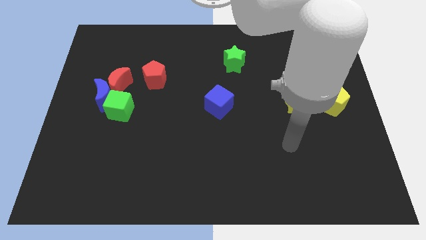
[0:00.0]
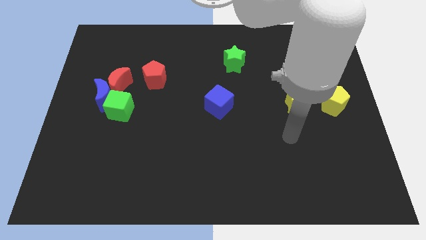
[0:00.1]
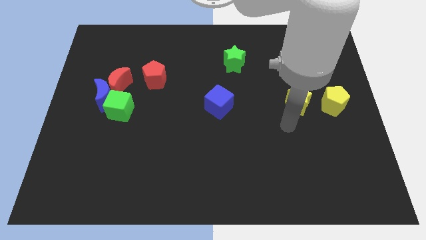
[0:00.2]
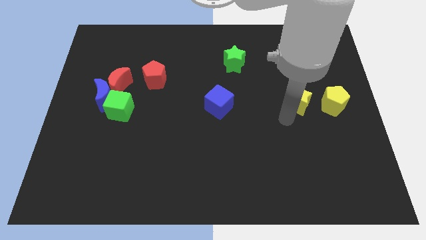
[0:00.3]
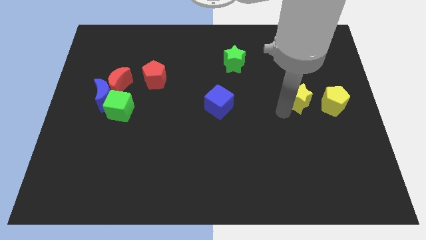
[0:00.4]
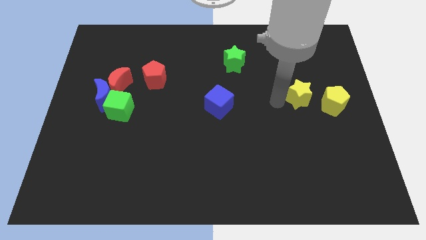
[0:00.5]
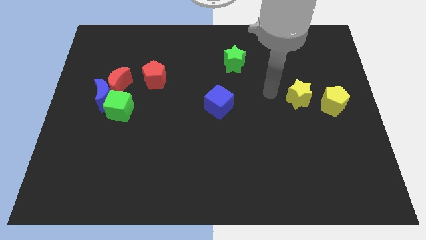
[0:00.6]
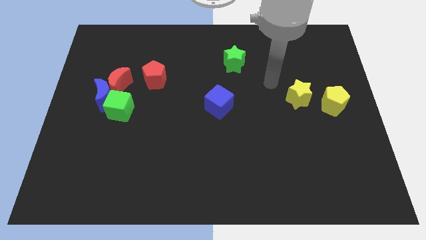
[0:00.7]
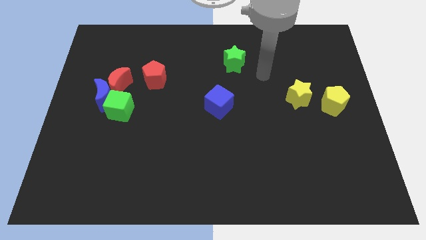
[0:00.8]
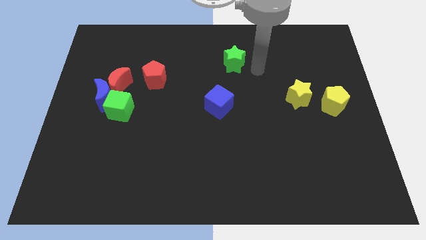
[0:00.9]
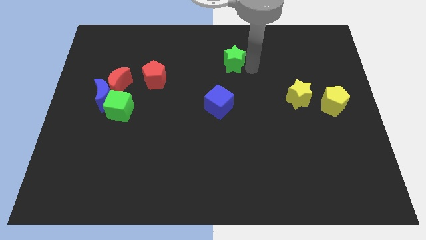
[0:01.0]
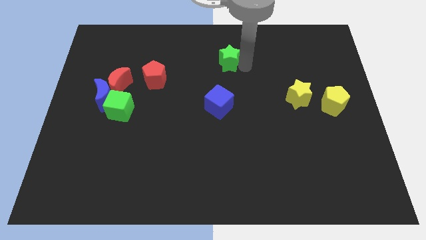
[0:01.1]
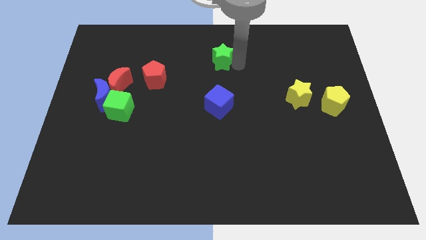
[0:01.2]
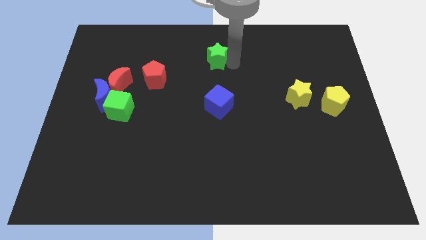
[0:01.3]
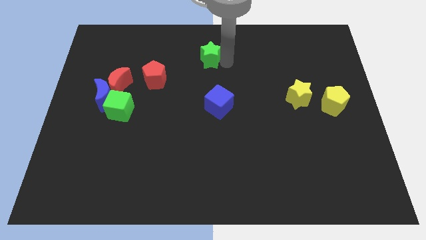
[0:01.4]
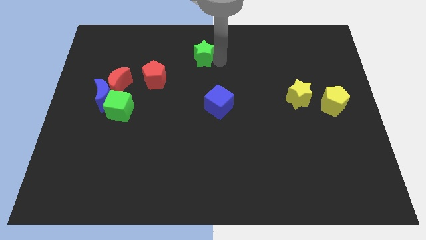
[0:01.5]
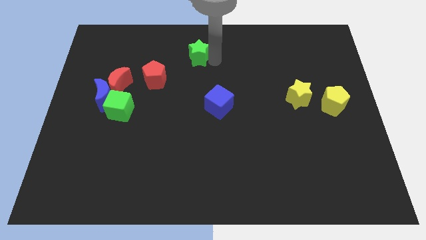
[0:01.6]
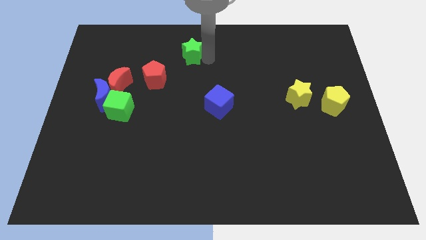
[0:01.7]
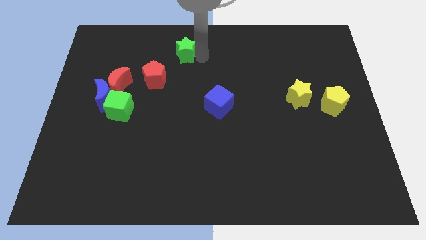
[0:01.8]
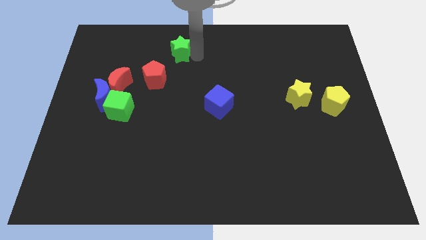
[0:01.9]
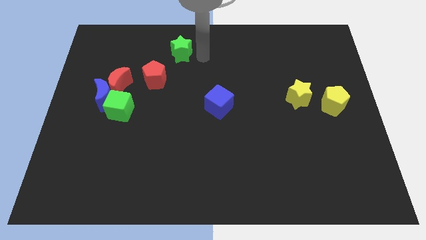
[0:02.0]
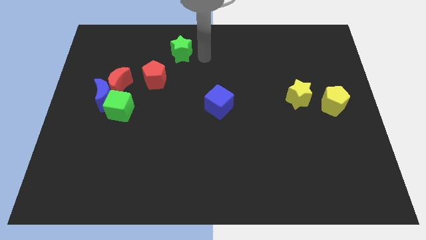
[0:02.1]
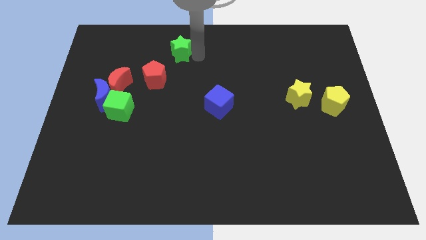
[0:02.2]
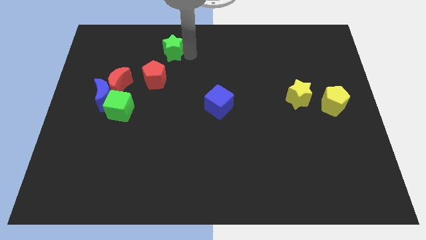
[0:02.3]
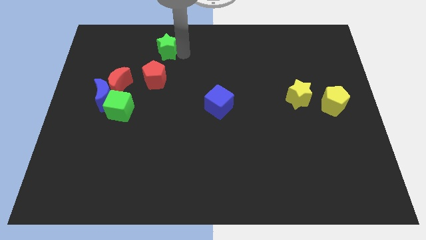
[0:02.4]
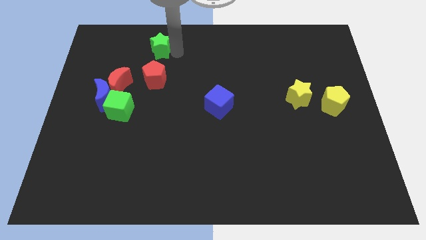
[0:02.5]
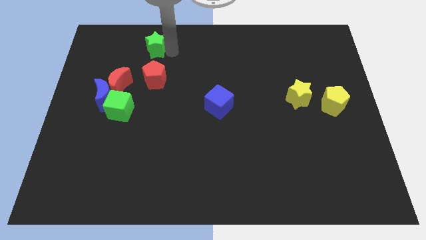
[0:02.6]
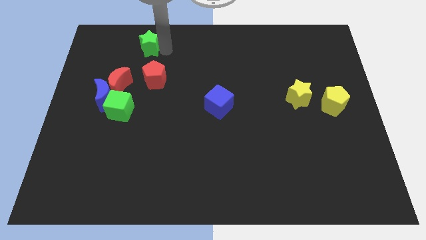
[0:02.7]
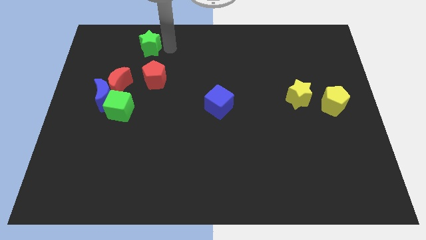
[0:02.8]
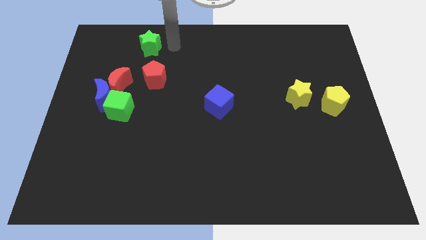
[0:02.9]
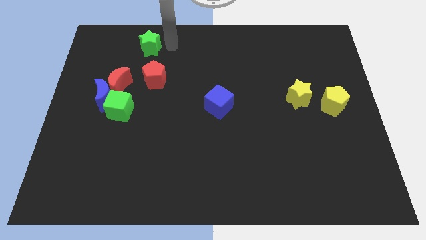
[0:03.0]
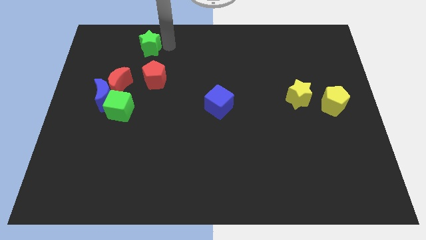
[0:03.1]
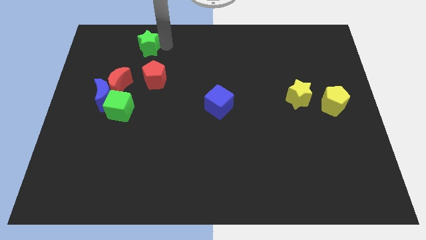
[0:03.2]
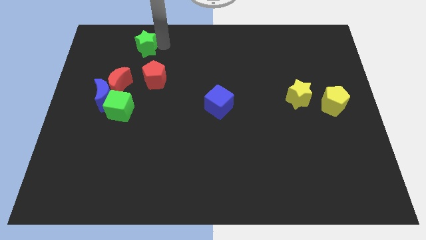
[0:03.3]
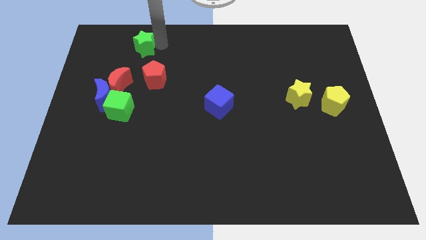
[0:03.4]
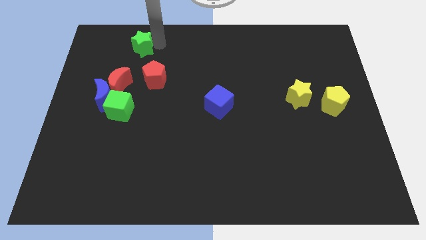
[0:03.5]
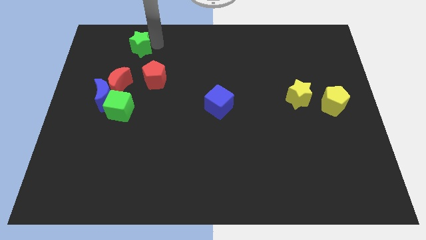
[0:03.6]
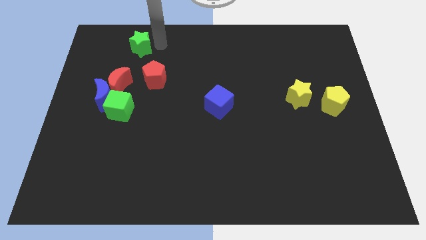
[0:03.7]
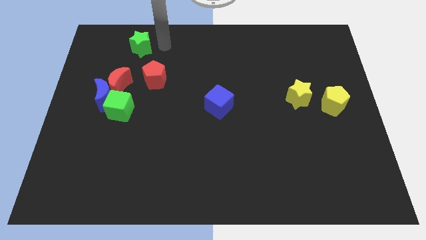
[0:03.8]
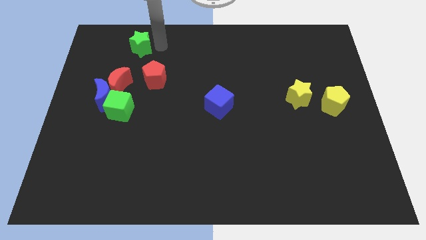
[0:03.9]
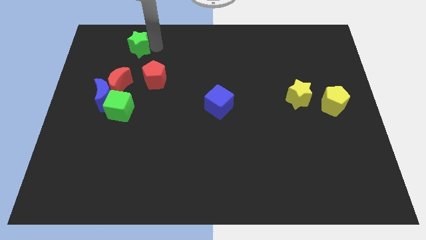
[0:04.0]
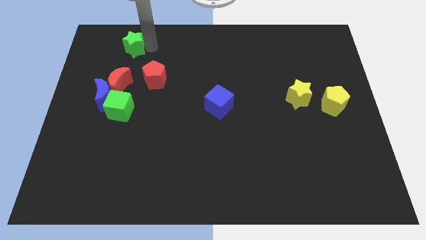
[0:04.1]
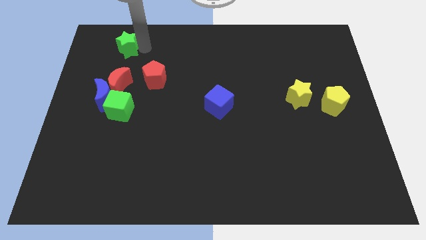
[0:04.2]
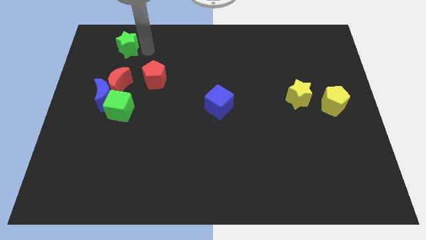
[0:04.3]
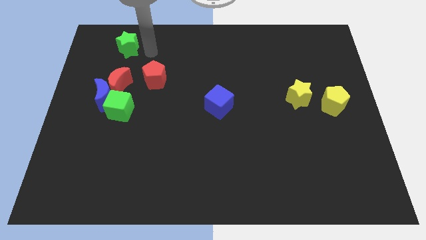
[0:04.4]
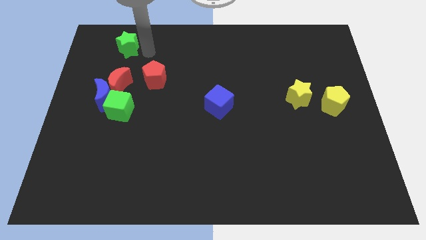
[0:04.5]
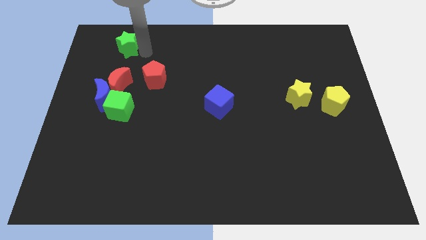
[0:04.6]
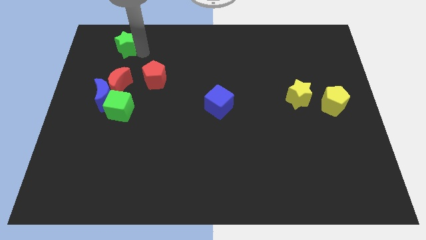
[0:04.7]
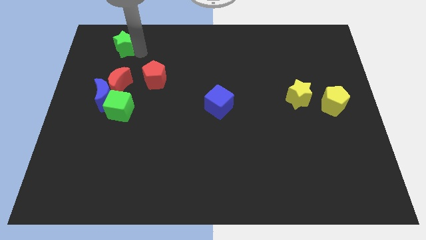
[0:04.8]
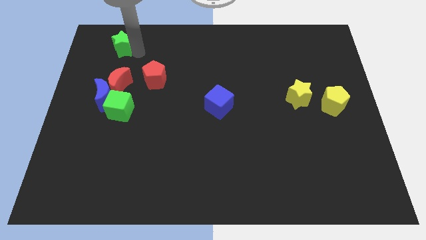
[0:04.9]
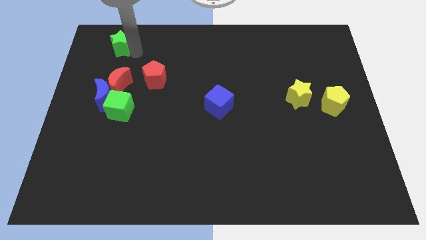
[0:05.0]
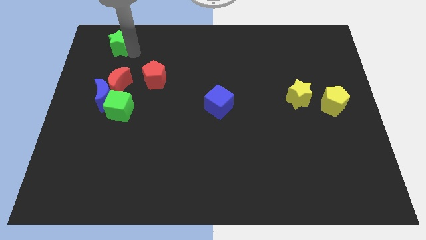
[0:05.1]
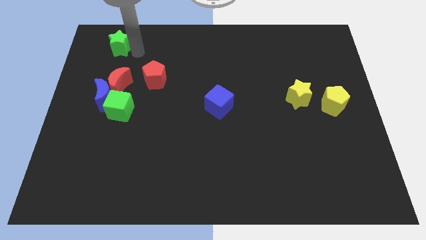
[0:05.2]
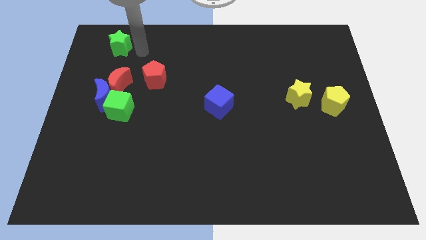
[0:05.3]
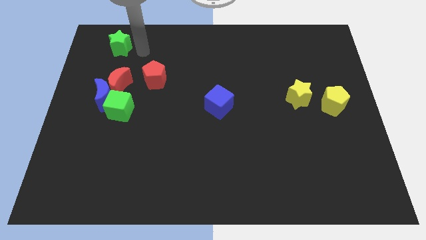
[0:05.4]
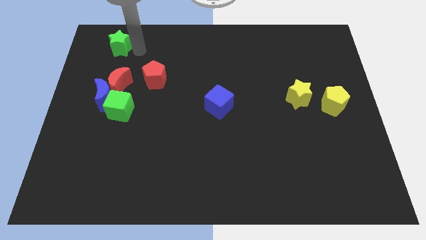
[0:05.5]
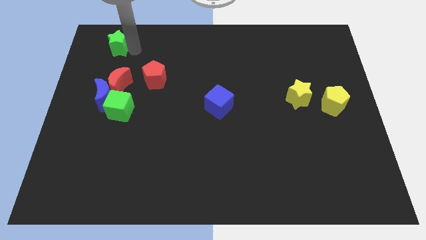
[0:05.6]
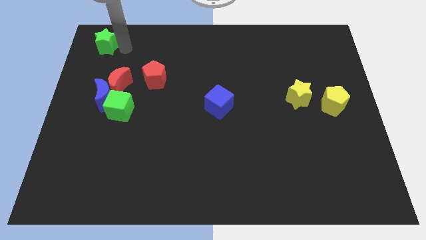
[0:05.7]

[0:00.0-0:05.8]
push the green star to the top left
